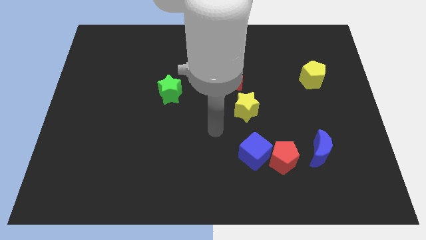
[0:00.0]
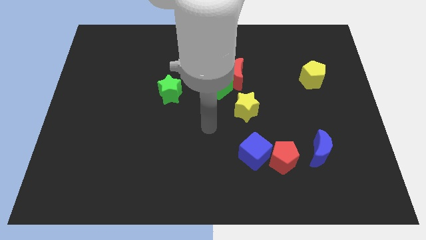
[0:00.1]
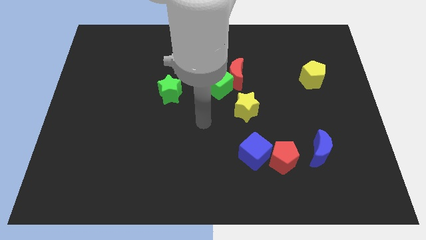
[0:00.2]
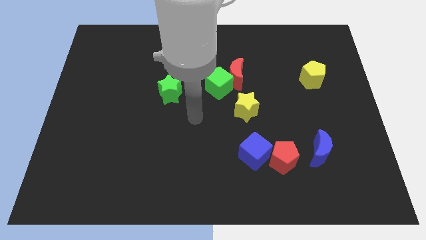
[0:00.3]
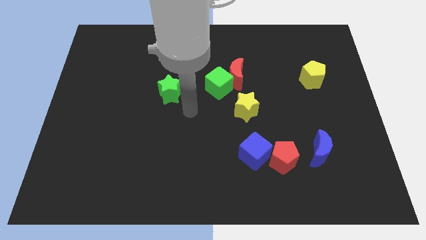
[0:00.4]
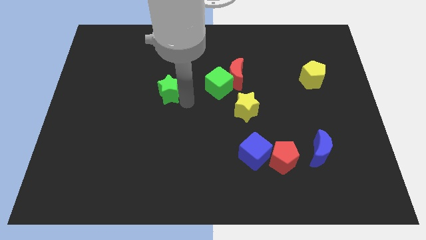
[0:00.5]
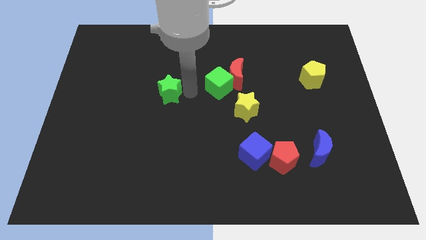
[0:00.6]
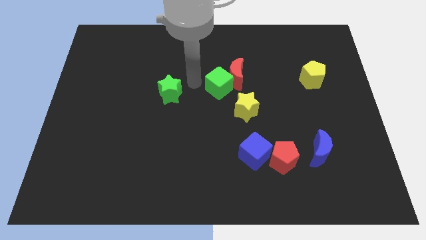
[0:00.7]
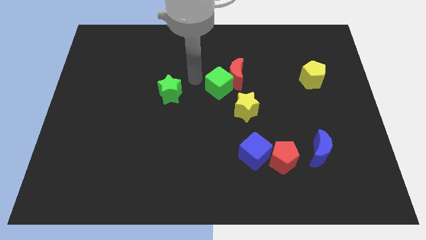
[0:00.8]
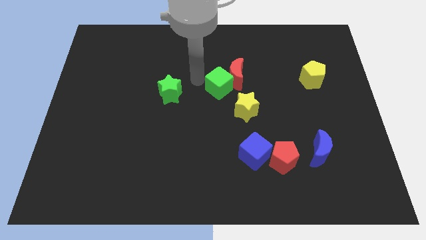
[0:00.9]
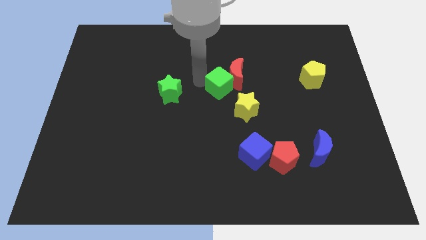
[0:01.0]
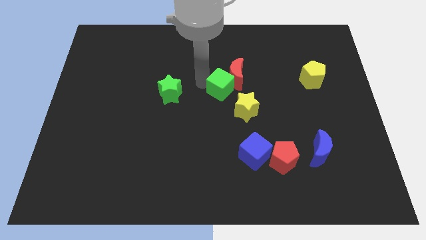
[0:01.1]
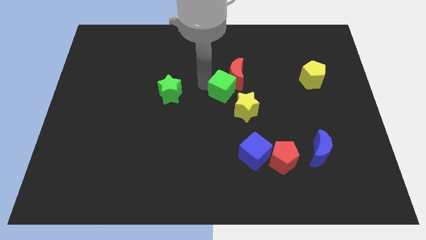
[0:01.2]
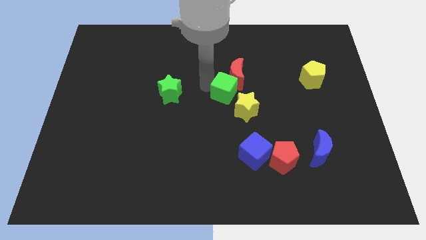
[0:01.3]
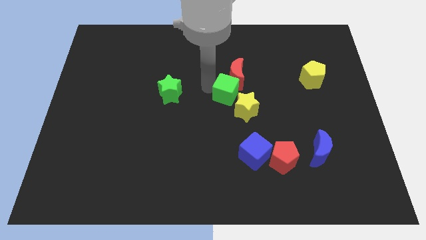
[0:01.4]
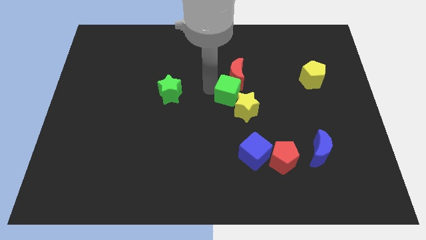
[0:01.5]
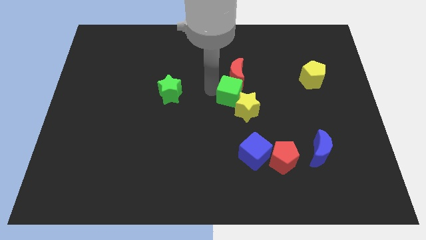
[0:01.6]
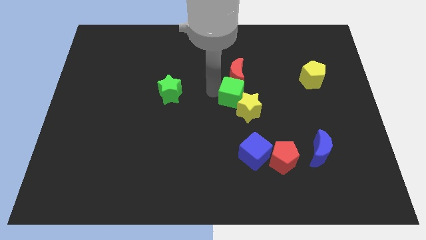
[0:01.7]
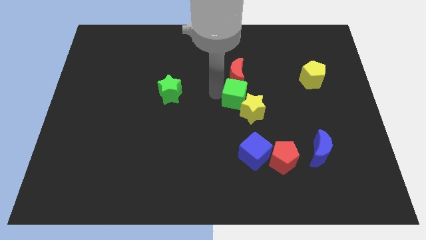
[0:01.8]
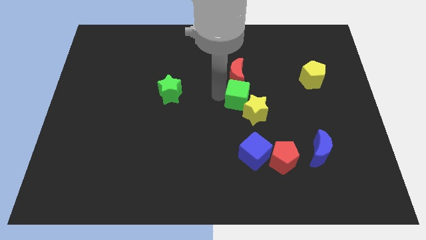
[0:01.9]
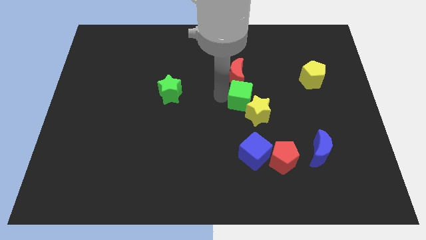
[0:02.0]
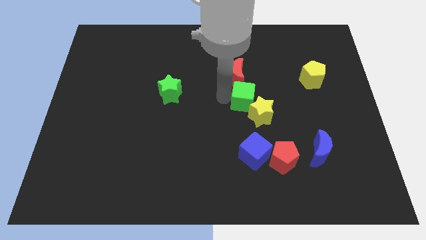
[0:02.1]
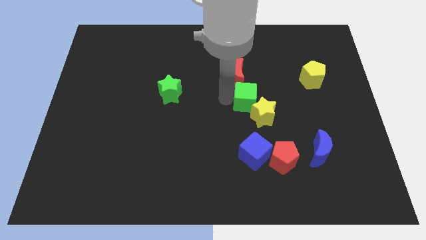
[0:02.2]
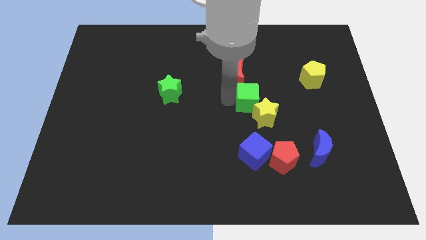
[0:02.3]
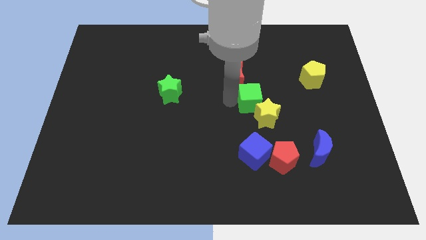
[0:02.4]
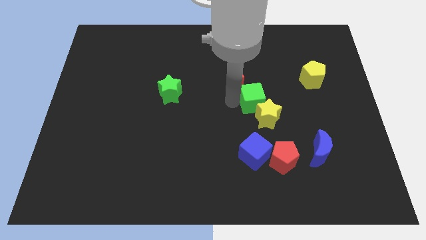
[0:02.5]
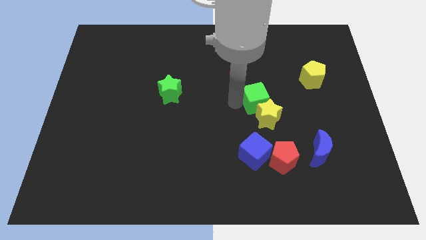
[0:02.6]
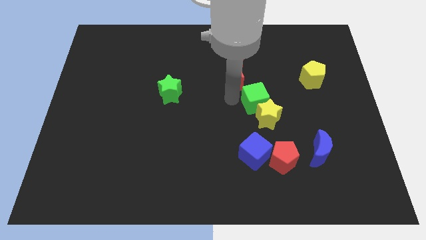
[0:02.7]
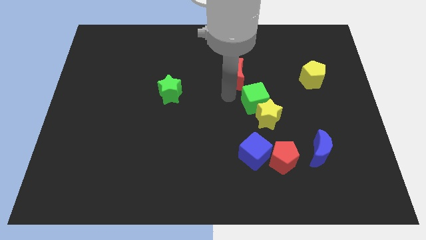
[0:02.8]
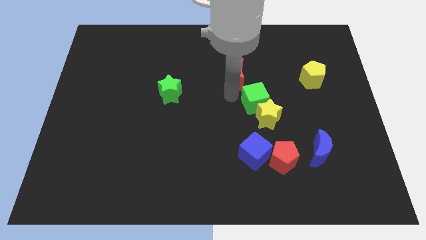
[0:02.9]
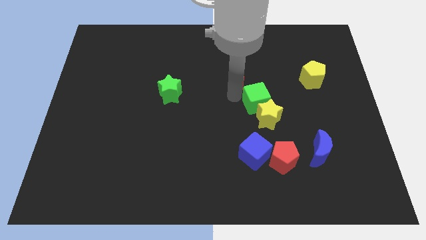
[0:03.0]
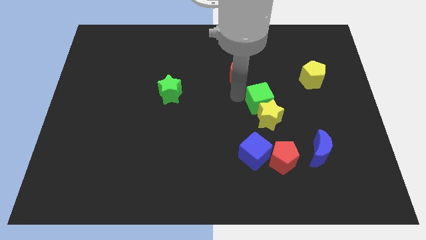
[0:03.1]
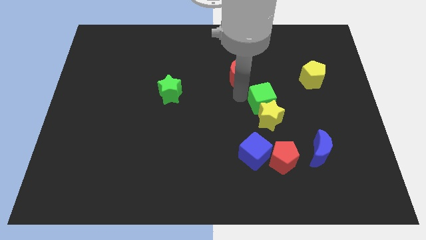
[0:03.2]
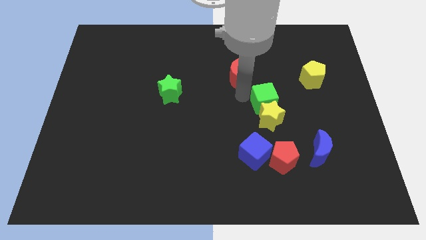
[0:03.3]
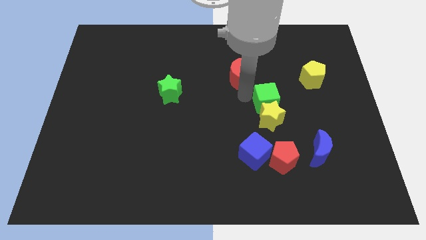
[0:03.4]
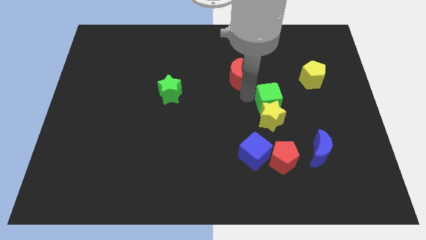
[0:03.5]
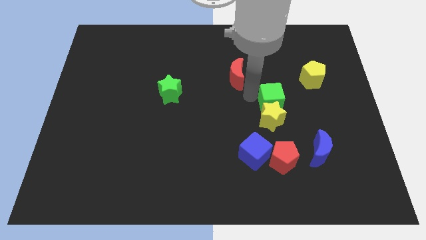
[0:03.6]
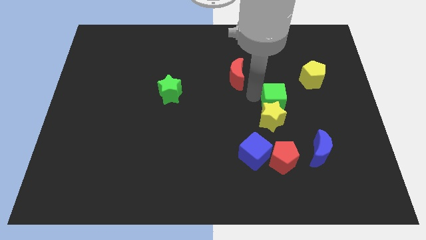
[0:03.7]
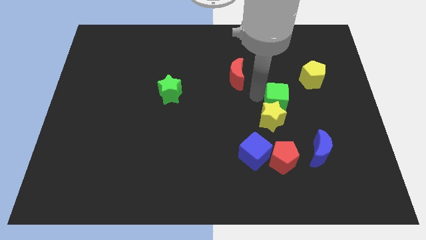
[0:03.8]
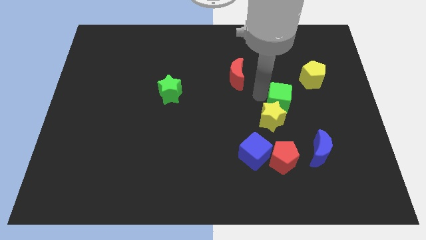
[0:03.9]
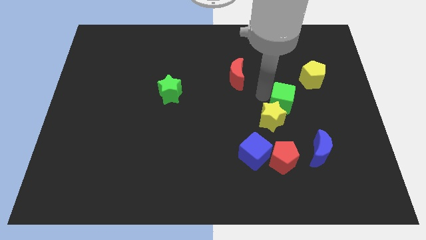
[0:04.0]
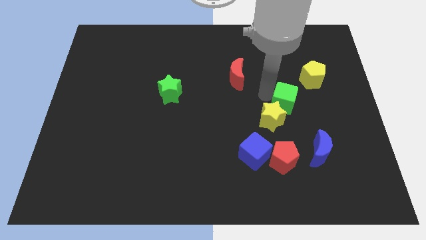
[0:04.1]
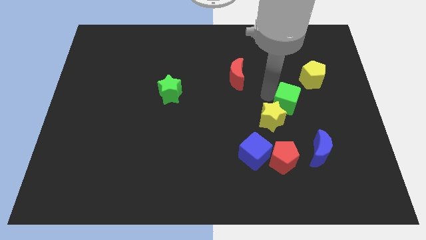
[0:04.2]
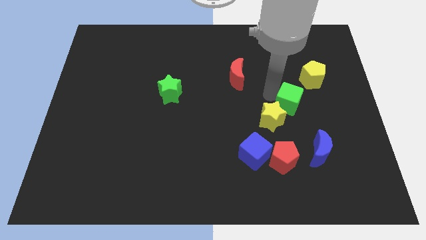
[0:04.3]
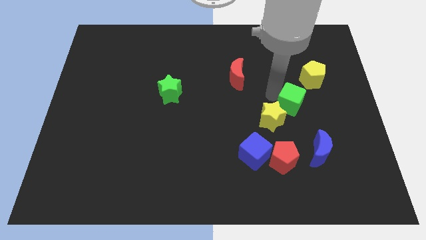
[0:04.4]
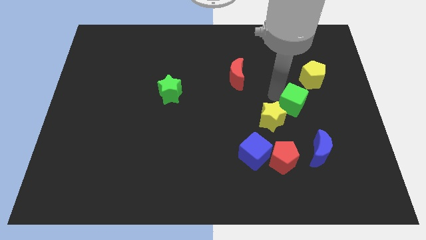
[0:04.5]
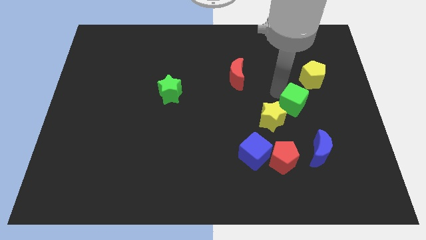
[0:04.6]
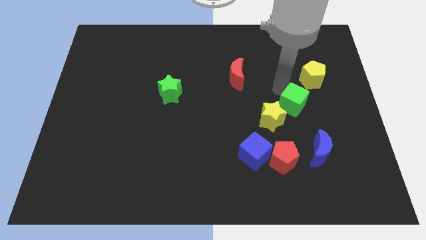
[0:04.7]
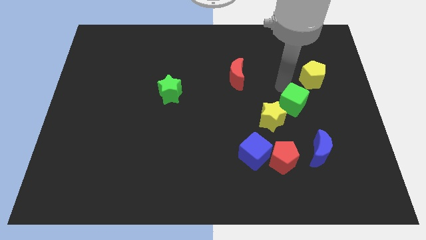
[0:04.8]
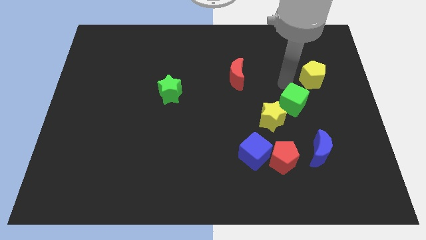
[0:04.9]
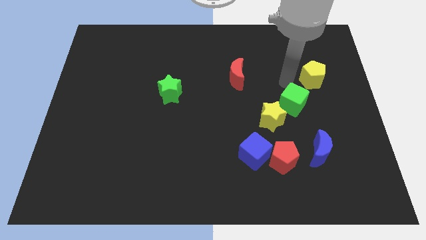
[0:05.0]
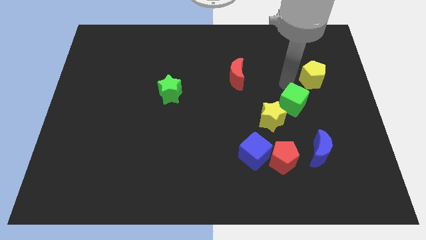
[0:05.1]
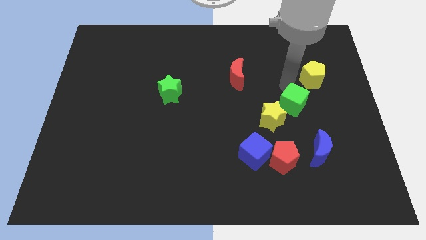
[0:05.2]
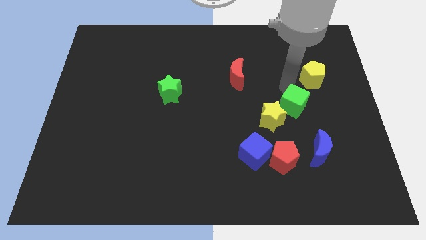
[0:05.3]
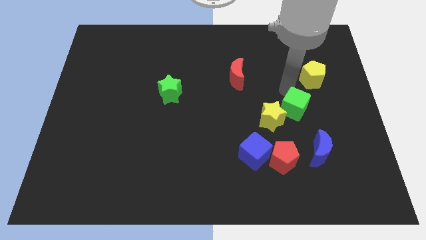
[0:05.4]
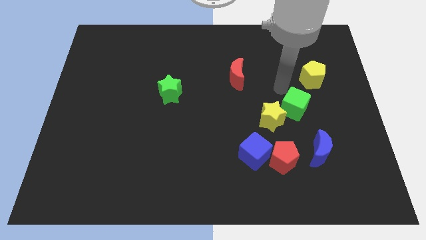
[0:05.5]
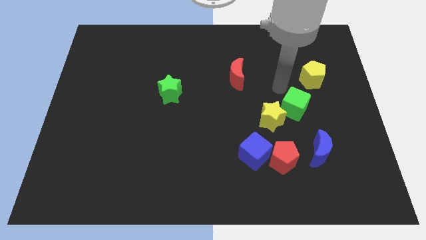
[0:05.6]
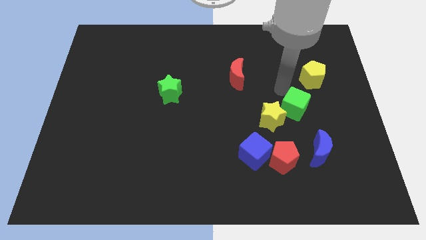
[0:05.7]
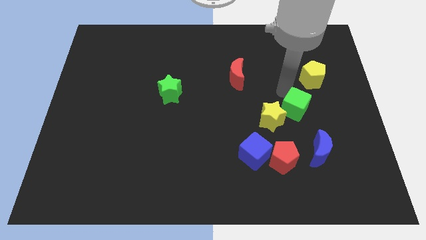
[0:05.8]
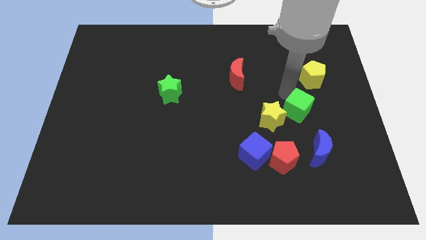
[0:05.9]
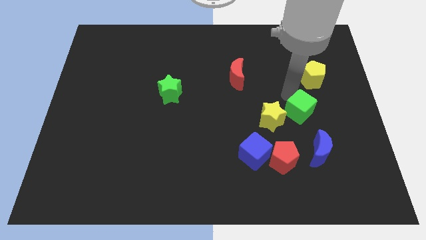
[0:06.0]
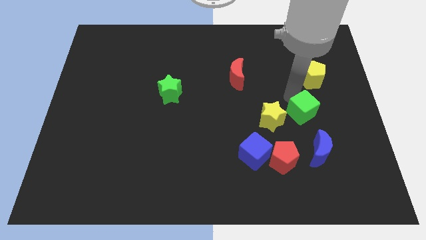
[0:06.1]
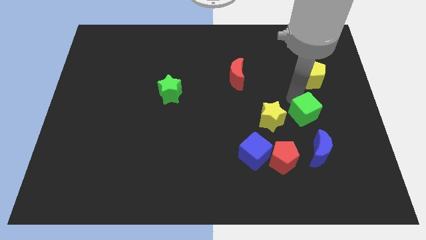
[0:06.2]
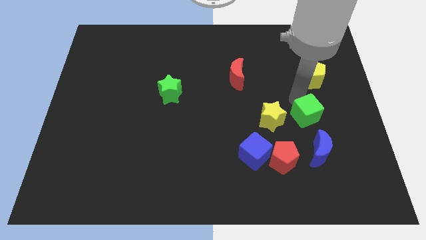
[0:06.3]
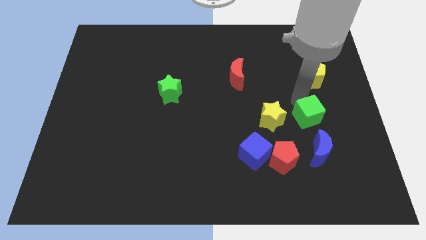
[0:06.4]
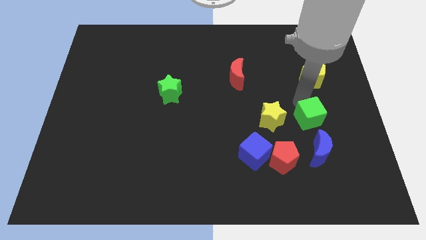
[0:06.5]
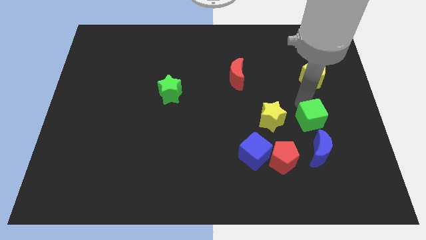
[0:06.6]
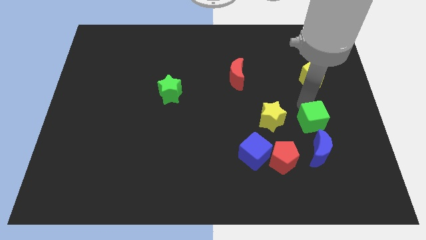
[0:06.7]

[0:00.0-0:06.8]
push the green cube downwards and right

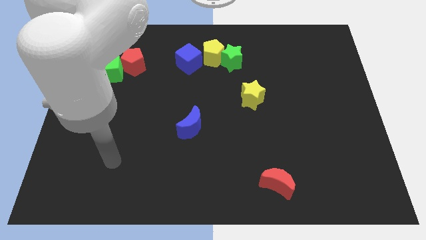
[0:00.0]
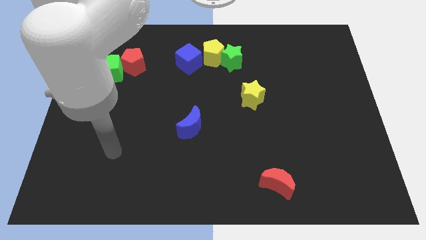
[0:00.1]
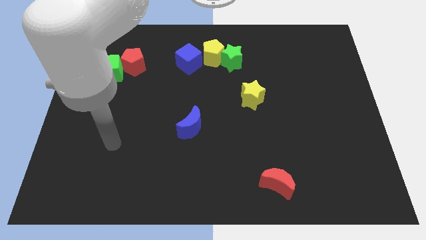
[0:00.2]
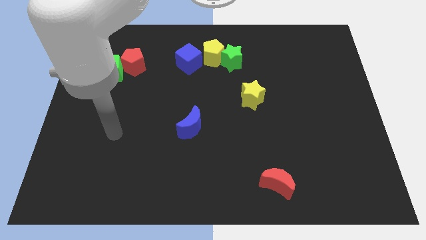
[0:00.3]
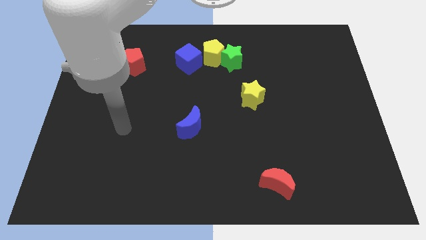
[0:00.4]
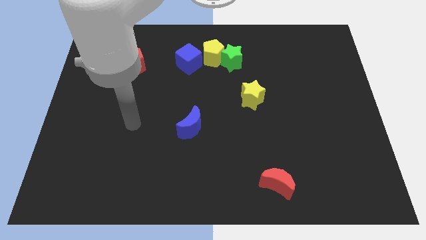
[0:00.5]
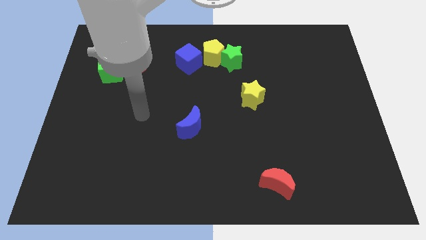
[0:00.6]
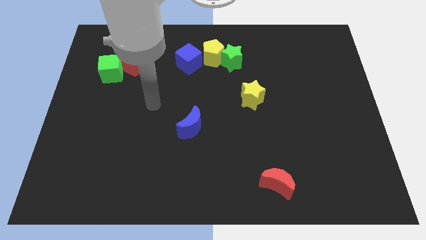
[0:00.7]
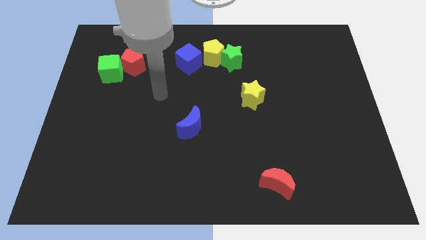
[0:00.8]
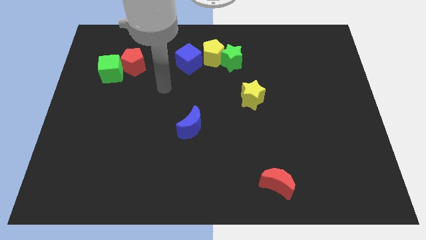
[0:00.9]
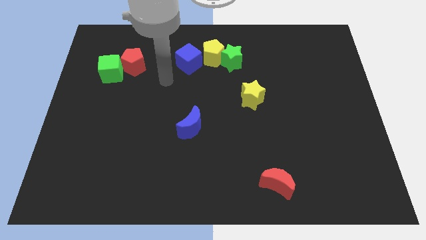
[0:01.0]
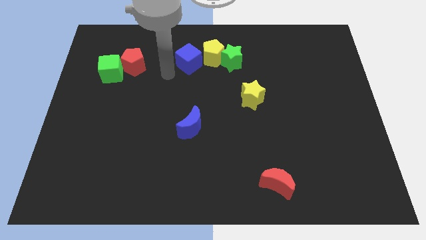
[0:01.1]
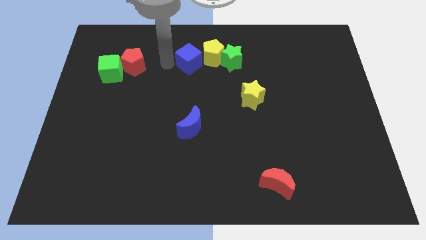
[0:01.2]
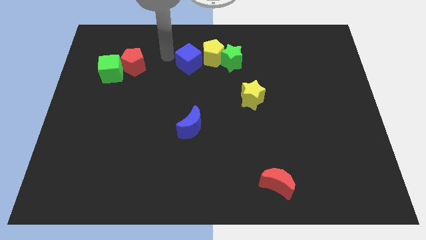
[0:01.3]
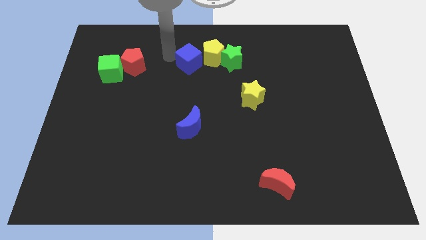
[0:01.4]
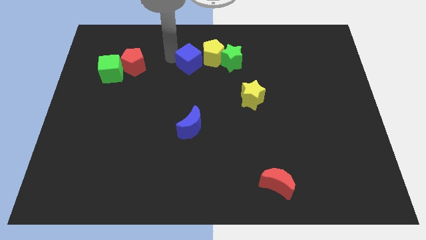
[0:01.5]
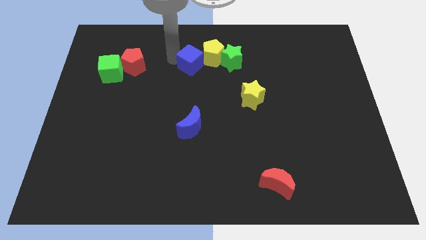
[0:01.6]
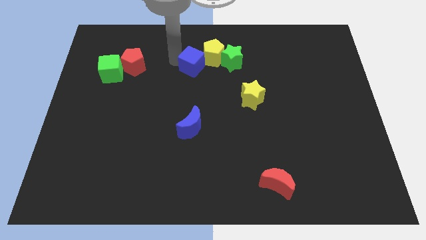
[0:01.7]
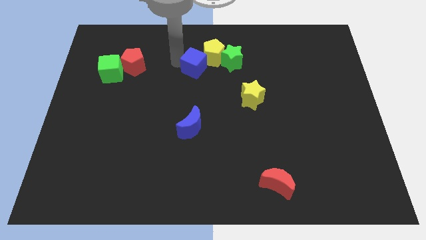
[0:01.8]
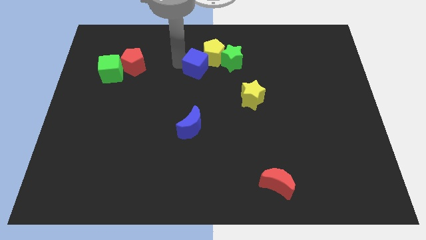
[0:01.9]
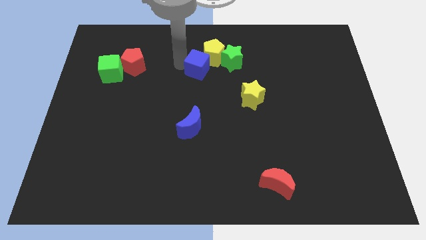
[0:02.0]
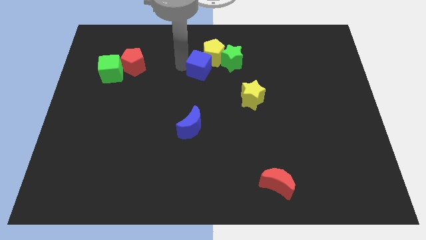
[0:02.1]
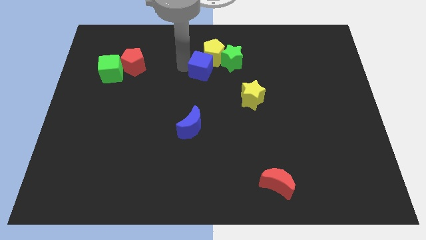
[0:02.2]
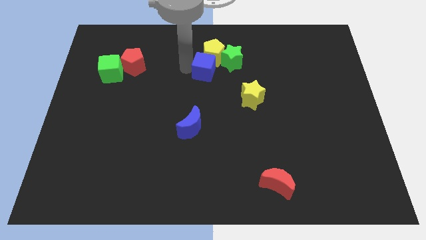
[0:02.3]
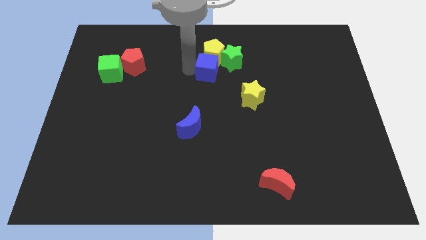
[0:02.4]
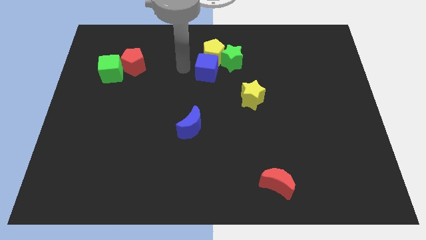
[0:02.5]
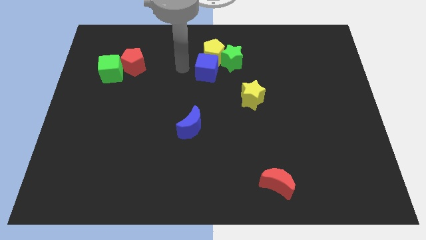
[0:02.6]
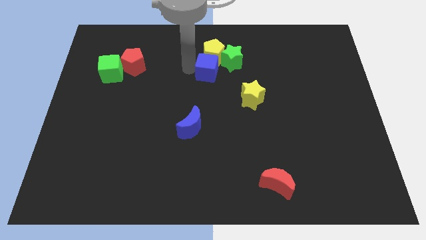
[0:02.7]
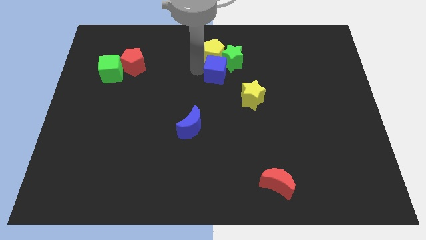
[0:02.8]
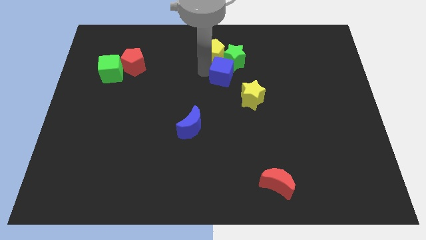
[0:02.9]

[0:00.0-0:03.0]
slightly move the blue cube to the right
